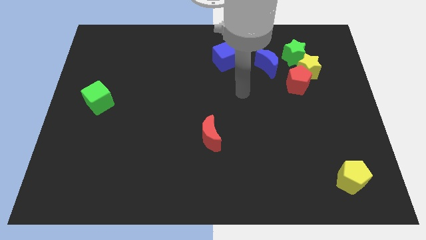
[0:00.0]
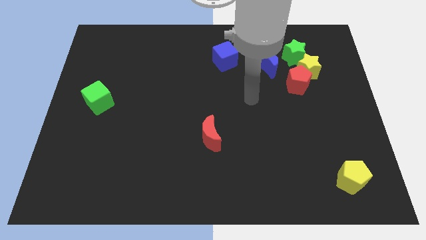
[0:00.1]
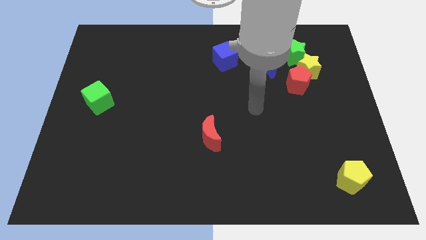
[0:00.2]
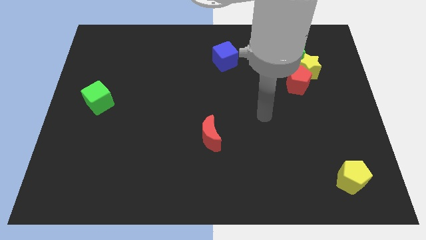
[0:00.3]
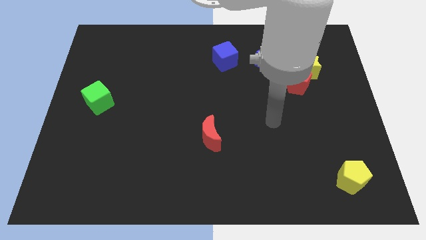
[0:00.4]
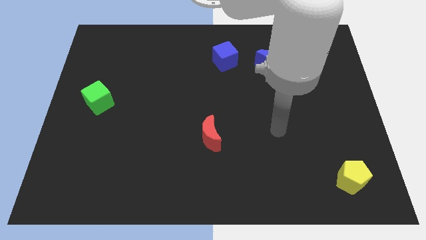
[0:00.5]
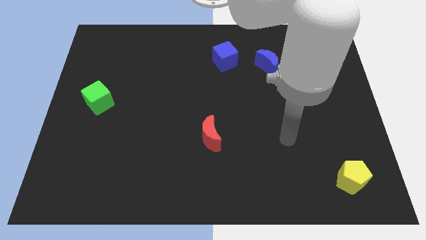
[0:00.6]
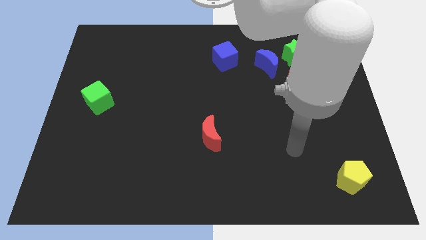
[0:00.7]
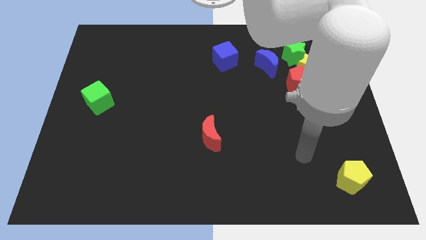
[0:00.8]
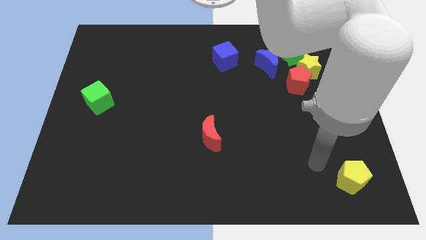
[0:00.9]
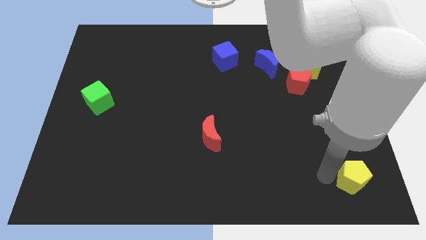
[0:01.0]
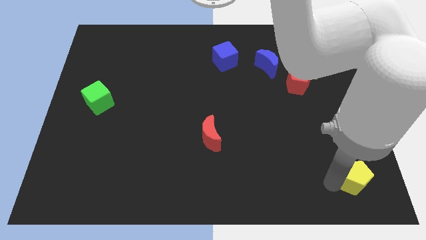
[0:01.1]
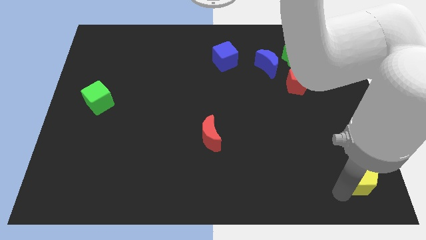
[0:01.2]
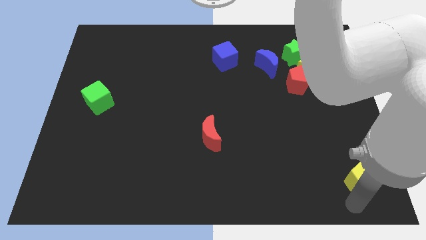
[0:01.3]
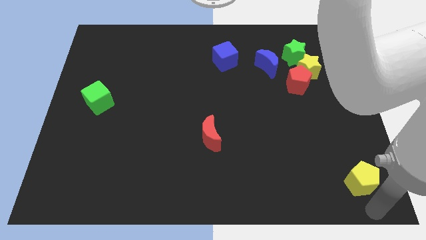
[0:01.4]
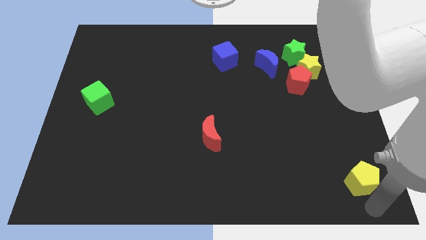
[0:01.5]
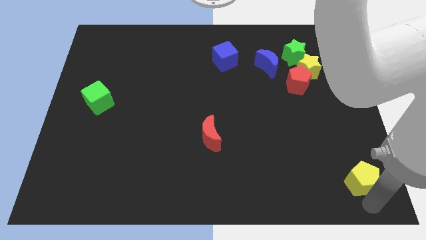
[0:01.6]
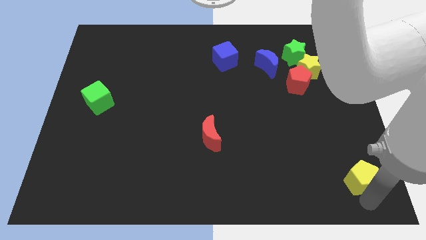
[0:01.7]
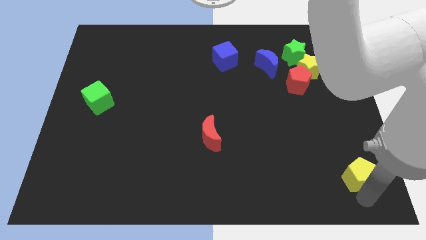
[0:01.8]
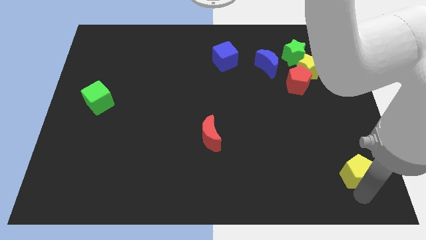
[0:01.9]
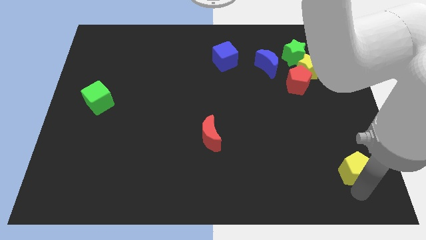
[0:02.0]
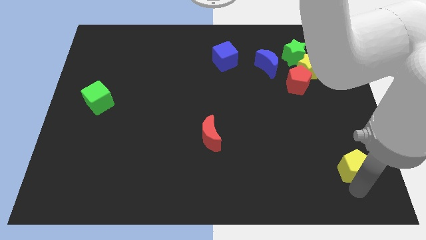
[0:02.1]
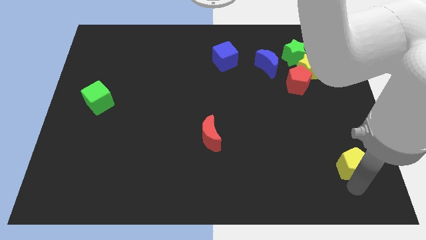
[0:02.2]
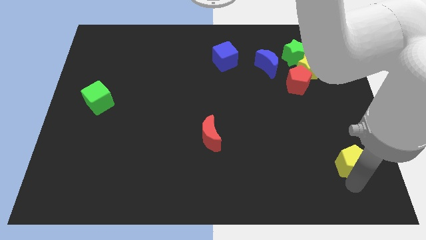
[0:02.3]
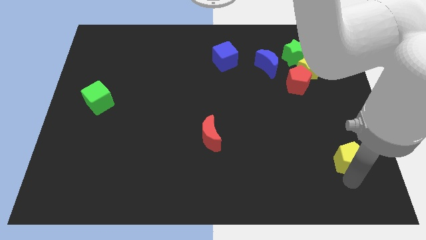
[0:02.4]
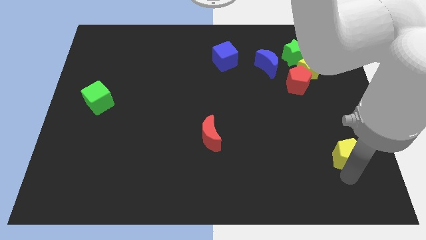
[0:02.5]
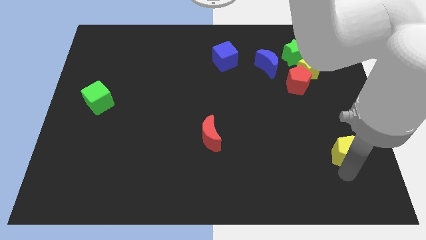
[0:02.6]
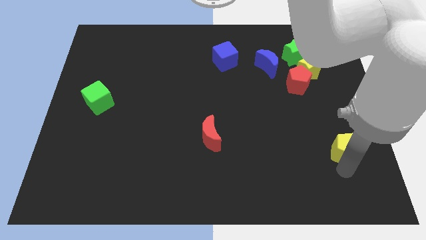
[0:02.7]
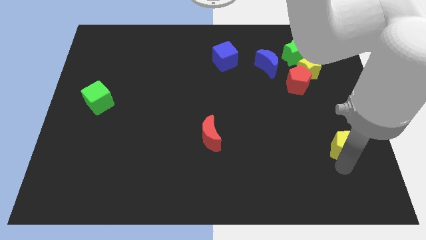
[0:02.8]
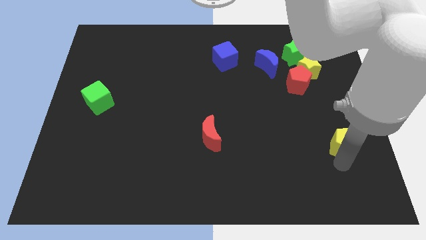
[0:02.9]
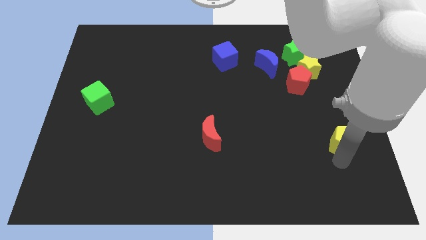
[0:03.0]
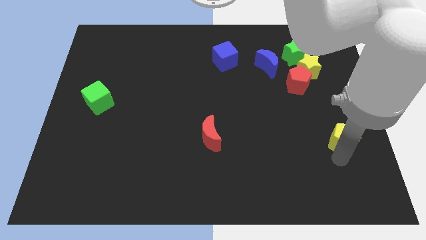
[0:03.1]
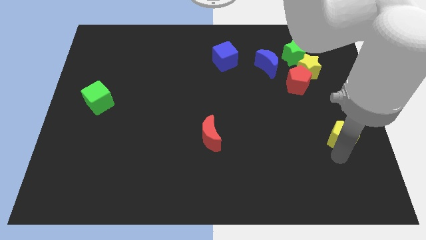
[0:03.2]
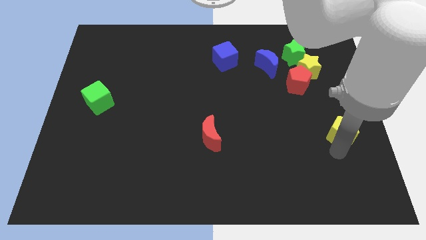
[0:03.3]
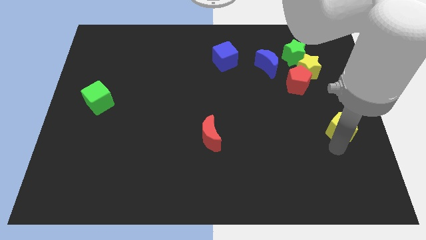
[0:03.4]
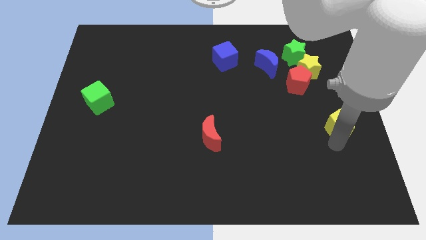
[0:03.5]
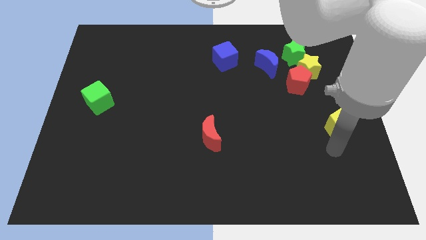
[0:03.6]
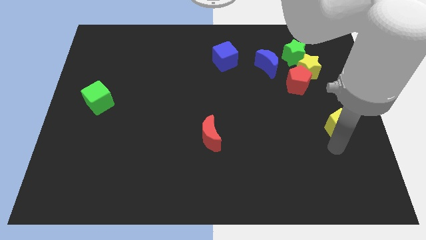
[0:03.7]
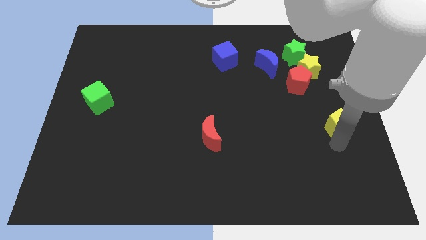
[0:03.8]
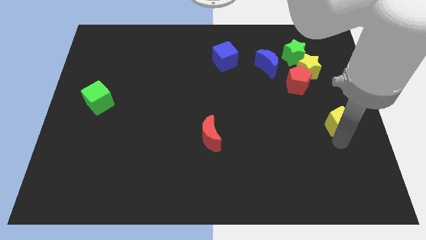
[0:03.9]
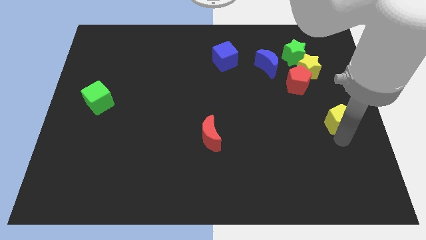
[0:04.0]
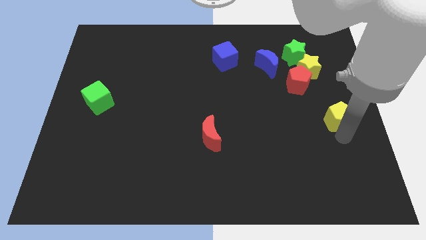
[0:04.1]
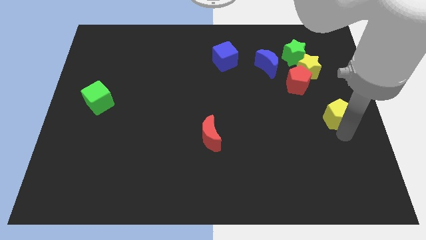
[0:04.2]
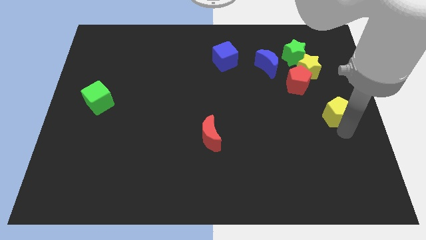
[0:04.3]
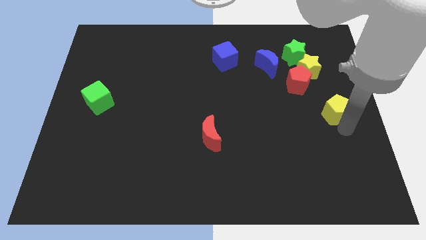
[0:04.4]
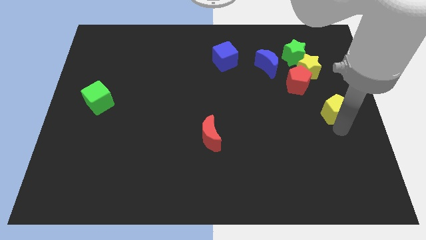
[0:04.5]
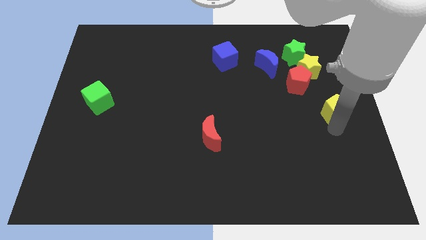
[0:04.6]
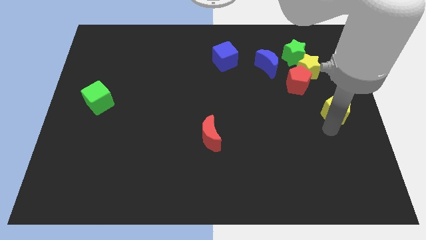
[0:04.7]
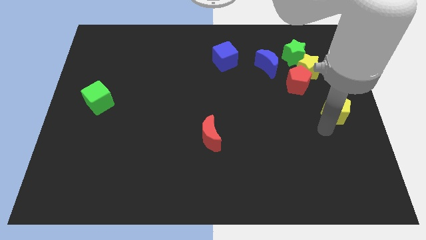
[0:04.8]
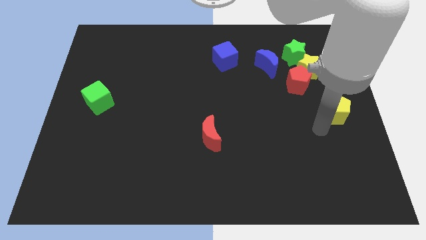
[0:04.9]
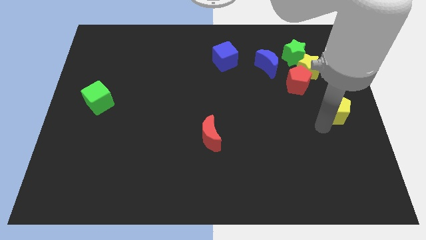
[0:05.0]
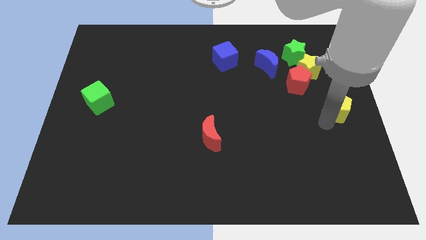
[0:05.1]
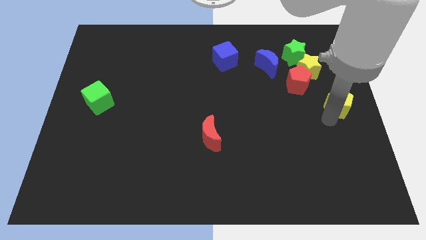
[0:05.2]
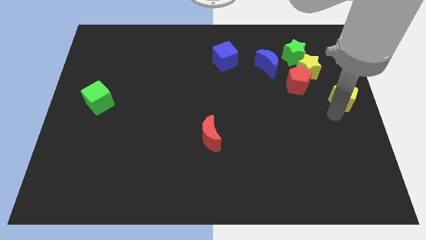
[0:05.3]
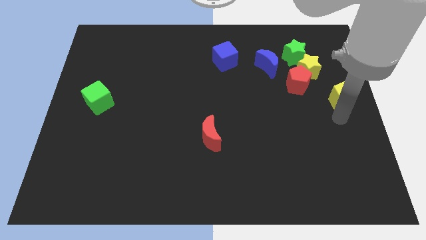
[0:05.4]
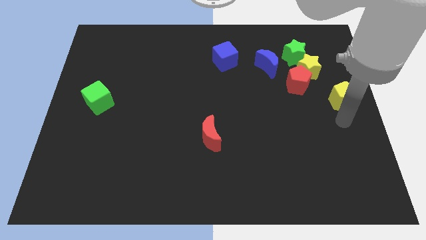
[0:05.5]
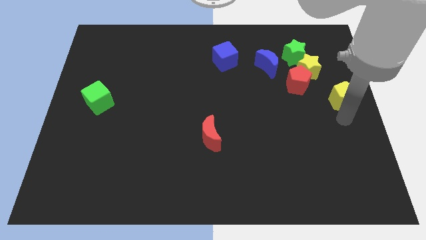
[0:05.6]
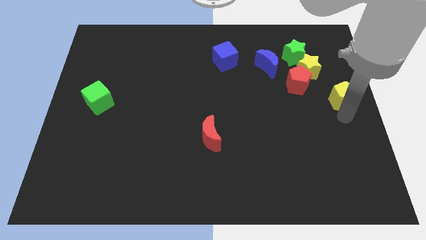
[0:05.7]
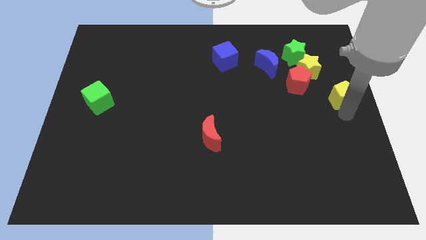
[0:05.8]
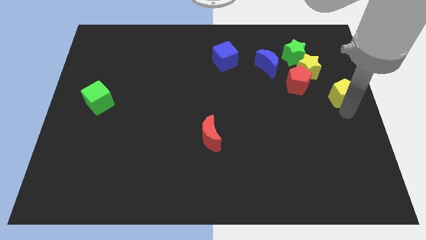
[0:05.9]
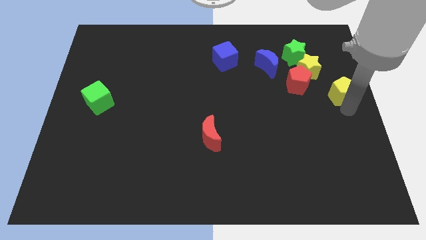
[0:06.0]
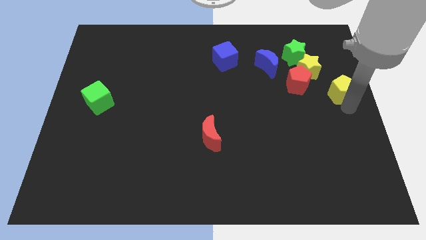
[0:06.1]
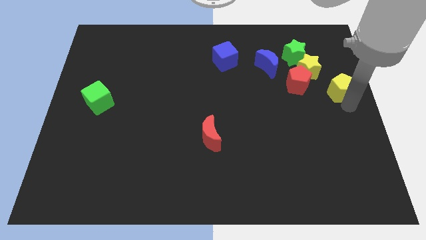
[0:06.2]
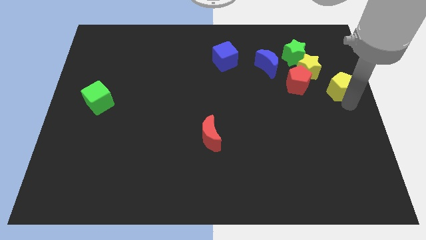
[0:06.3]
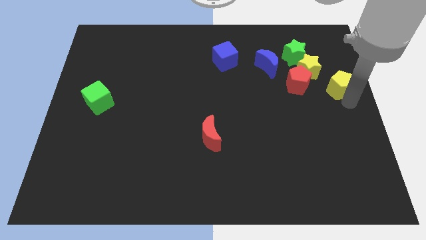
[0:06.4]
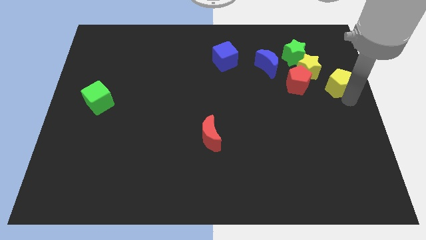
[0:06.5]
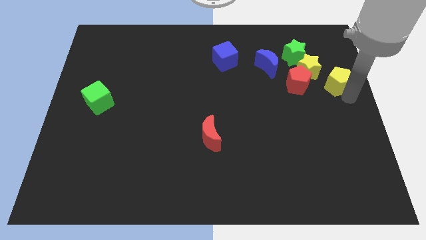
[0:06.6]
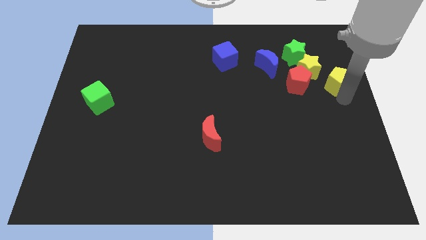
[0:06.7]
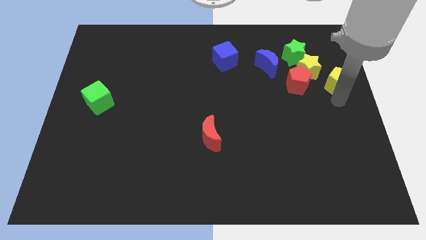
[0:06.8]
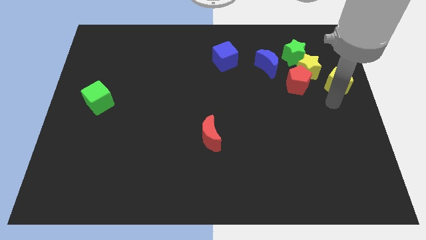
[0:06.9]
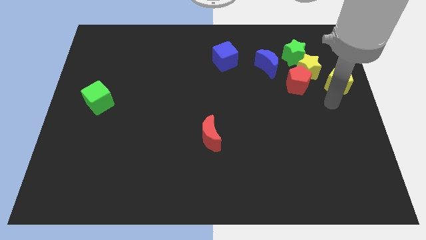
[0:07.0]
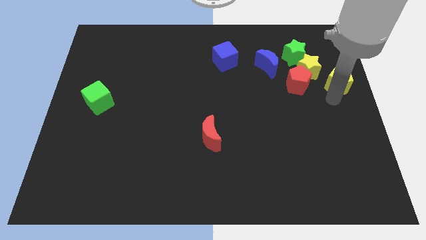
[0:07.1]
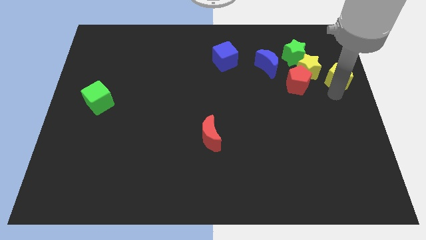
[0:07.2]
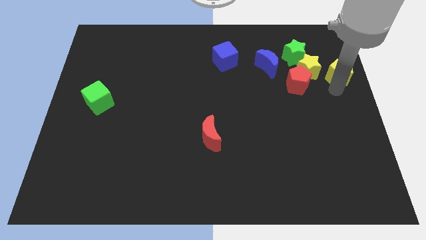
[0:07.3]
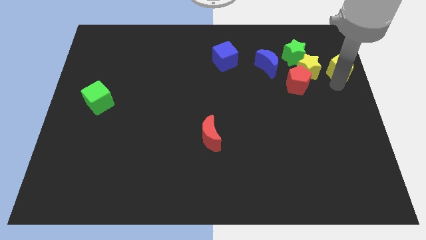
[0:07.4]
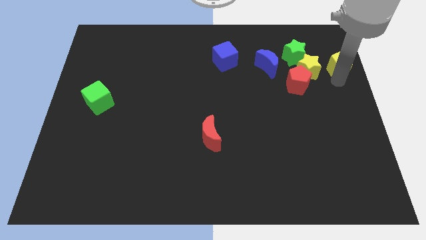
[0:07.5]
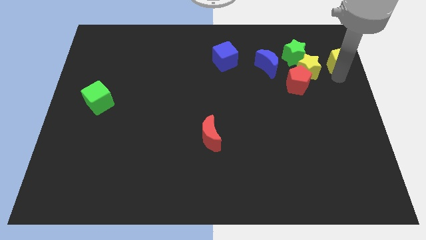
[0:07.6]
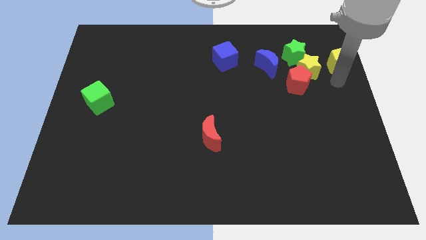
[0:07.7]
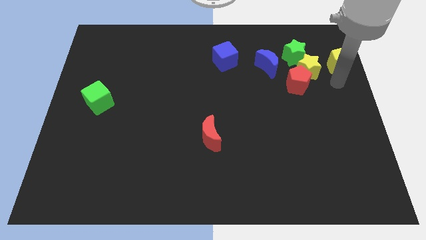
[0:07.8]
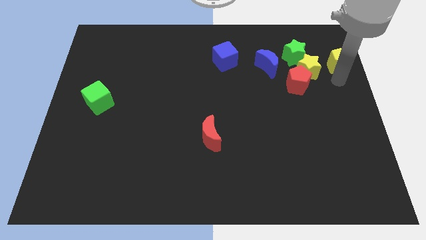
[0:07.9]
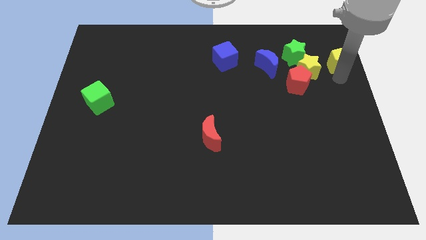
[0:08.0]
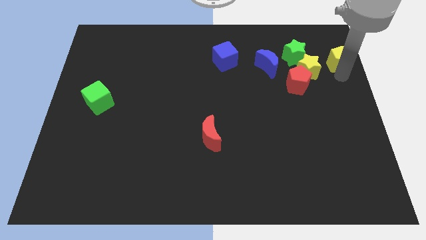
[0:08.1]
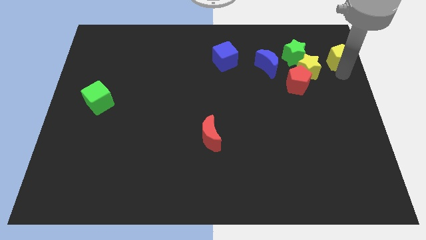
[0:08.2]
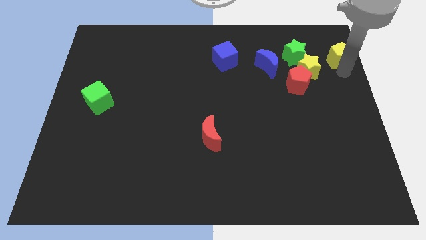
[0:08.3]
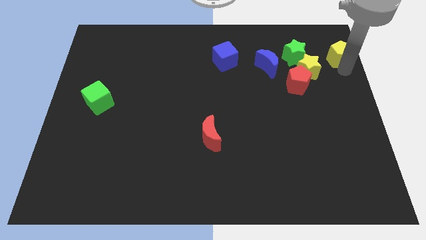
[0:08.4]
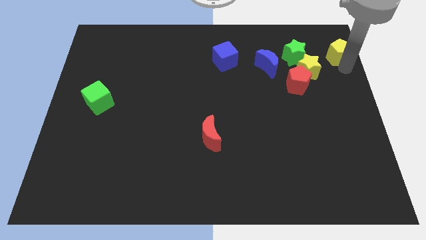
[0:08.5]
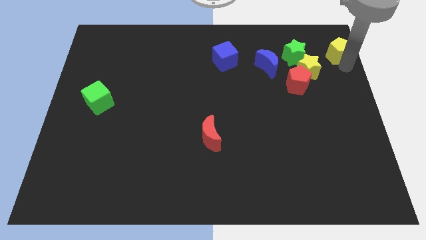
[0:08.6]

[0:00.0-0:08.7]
slide the yellow pentagon to the top right corner
